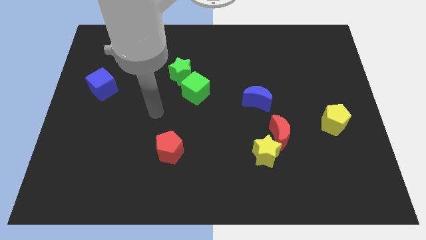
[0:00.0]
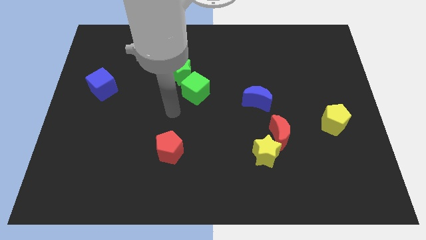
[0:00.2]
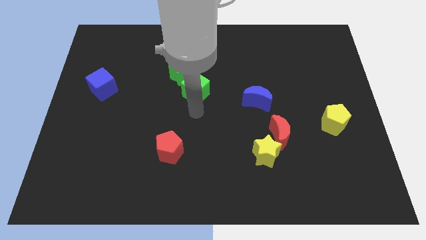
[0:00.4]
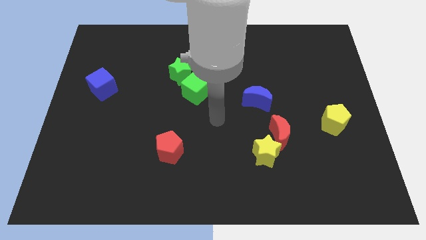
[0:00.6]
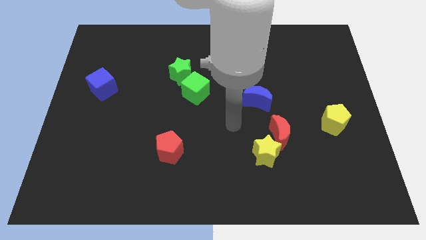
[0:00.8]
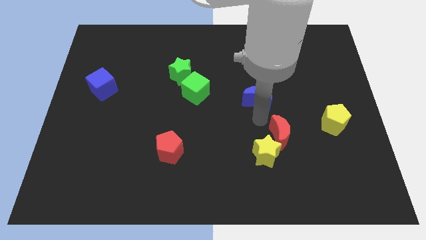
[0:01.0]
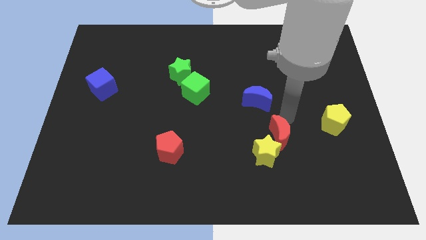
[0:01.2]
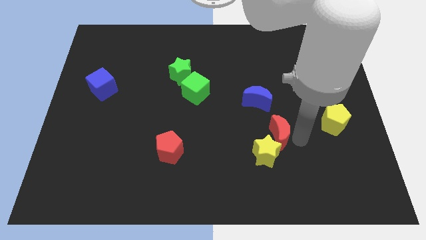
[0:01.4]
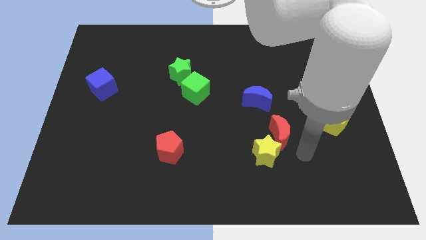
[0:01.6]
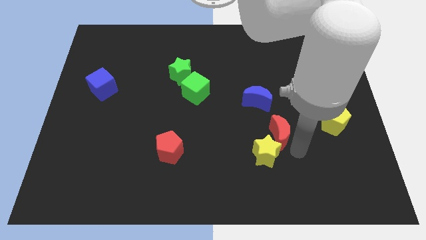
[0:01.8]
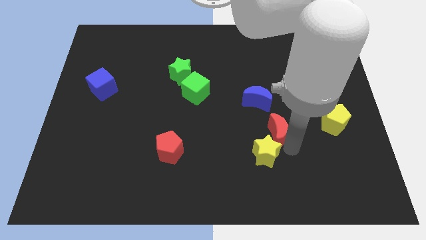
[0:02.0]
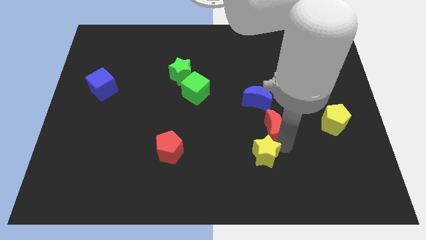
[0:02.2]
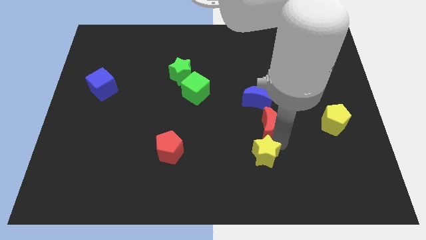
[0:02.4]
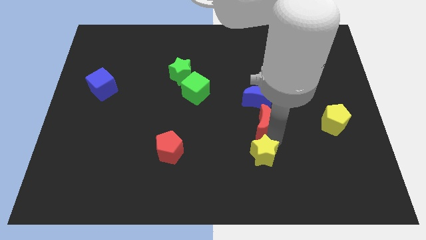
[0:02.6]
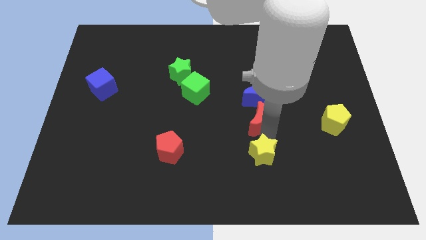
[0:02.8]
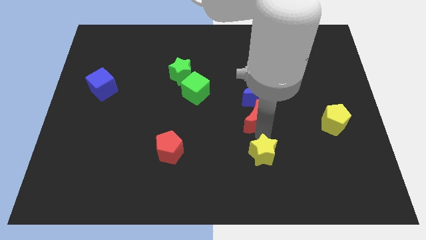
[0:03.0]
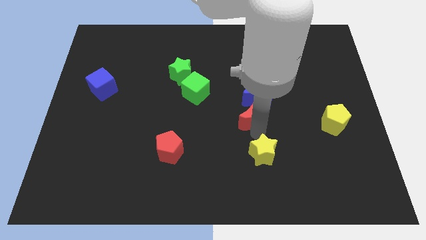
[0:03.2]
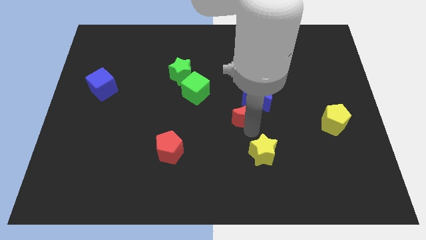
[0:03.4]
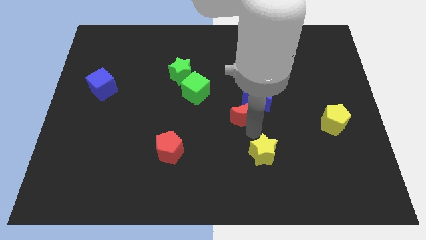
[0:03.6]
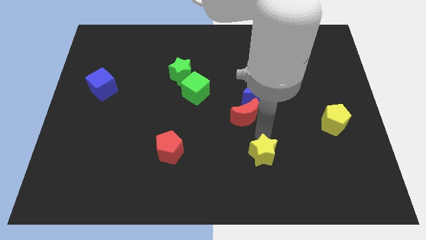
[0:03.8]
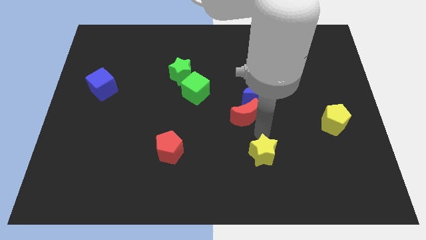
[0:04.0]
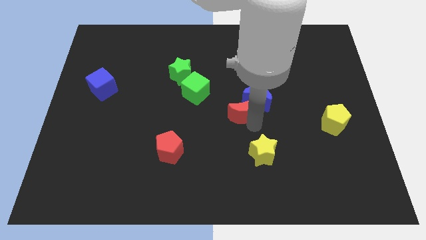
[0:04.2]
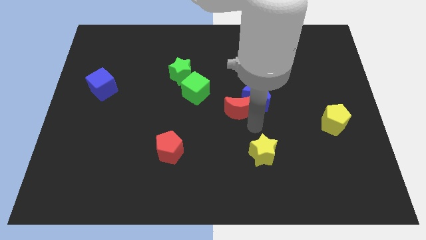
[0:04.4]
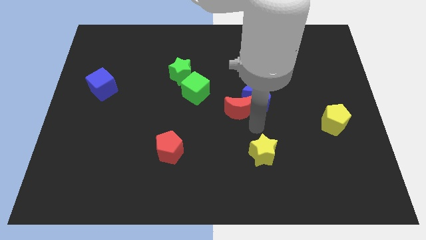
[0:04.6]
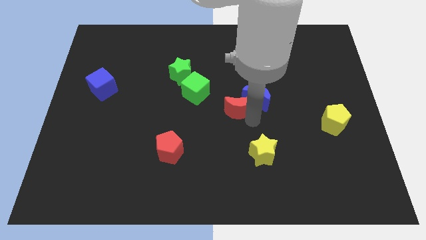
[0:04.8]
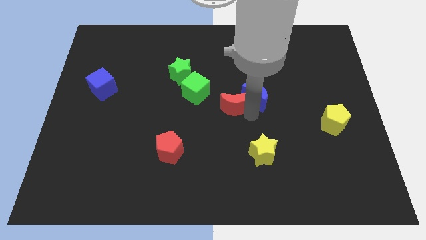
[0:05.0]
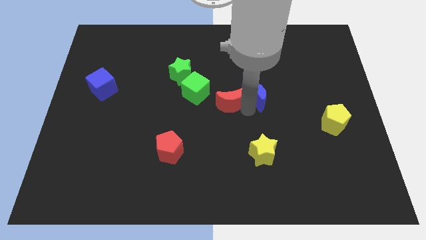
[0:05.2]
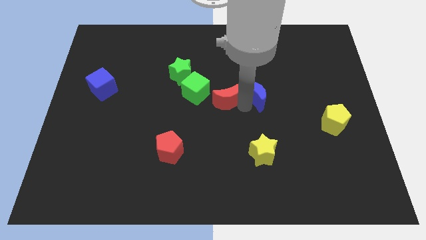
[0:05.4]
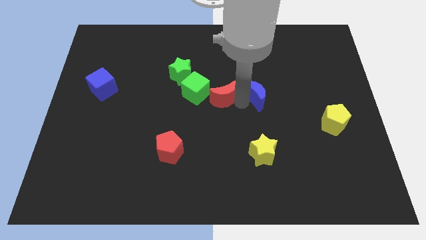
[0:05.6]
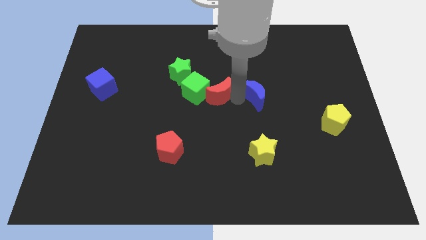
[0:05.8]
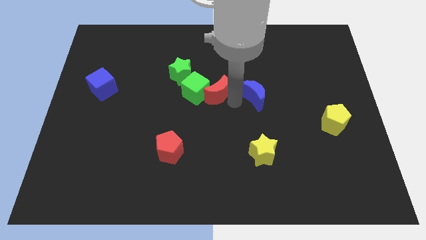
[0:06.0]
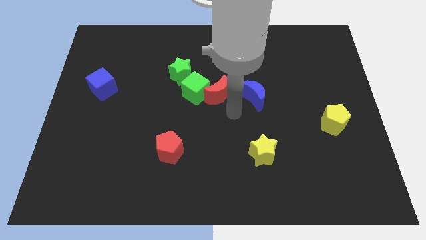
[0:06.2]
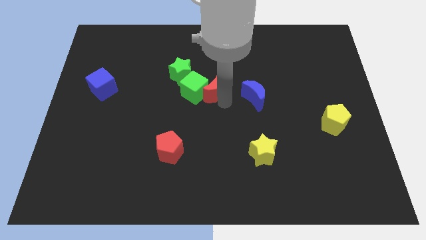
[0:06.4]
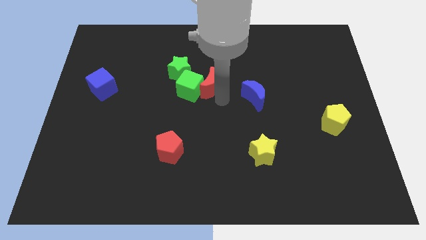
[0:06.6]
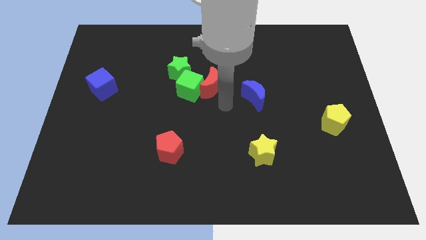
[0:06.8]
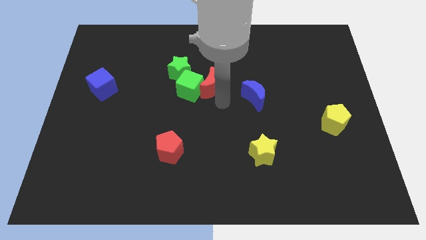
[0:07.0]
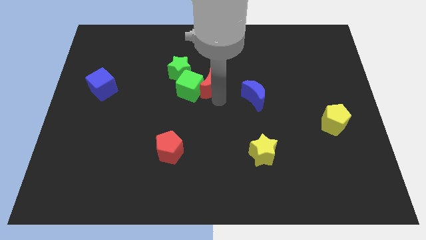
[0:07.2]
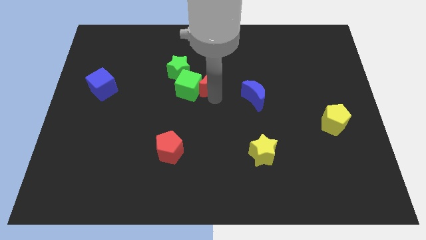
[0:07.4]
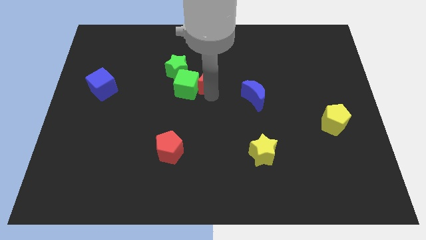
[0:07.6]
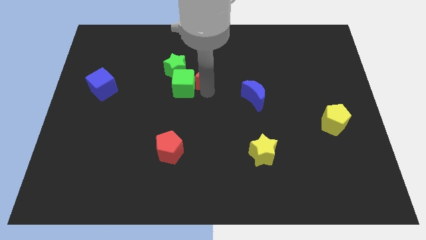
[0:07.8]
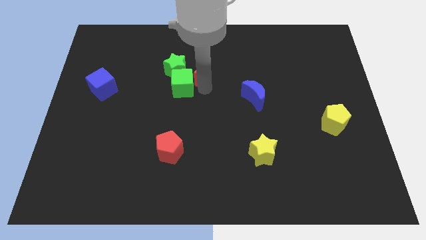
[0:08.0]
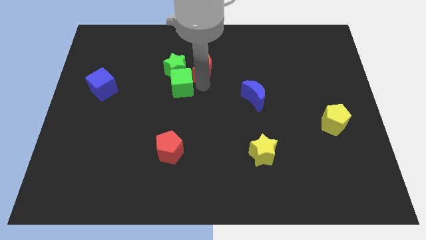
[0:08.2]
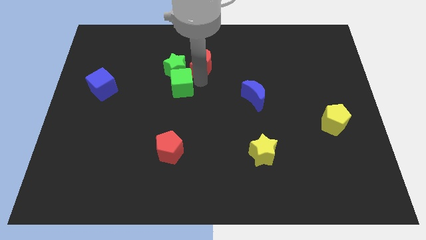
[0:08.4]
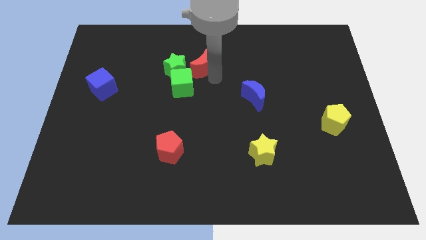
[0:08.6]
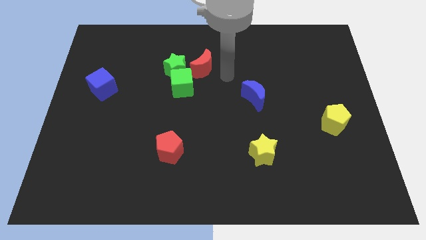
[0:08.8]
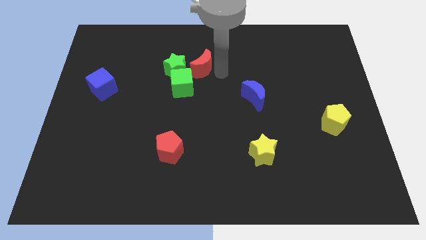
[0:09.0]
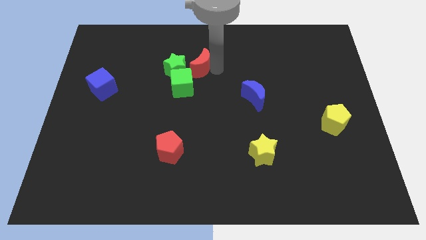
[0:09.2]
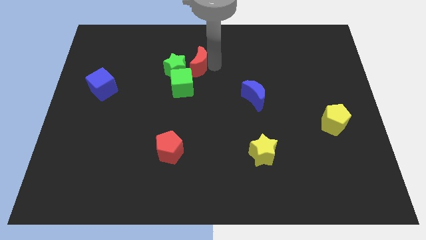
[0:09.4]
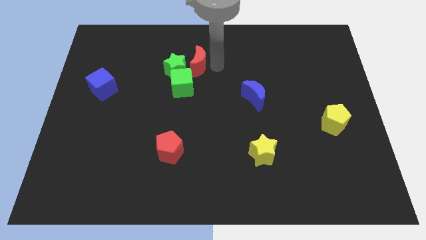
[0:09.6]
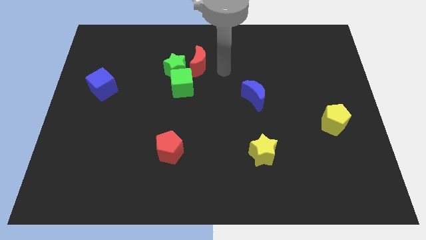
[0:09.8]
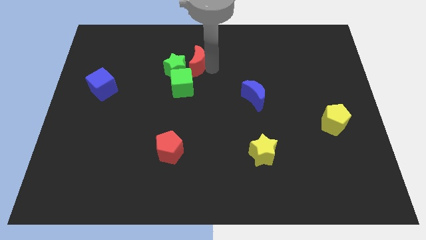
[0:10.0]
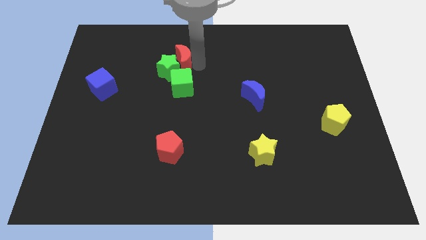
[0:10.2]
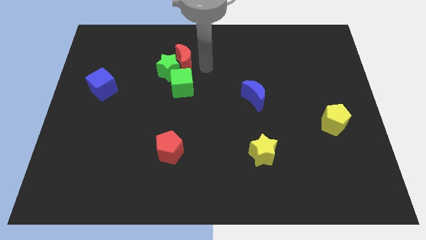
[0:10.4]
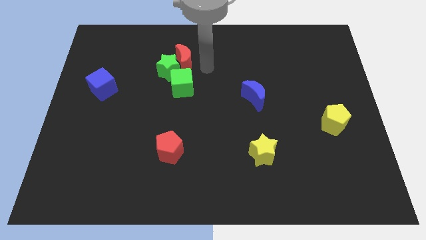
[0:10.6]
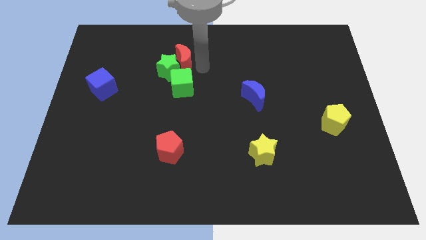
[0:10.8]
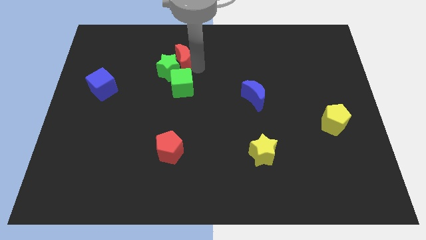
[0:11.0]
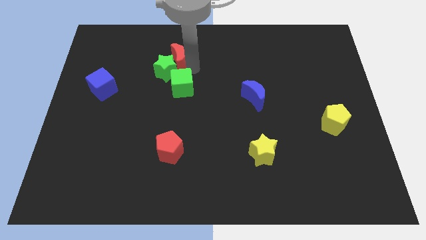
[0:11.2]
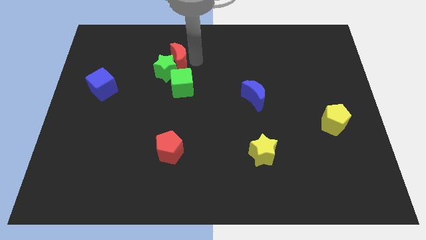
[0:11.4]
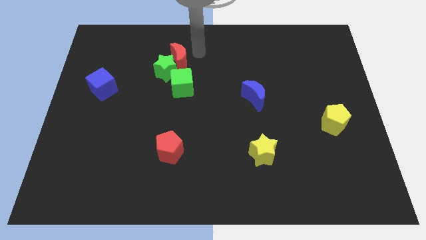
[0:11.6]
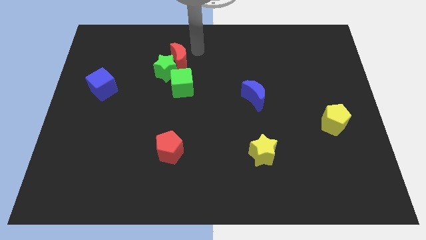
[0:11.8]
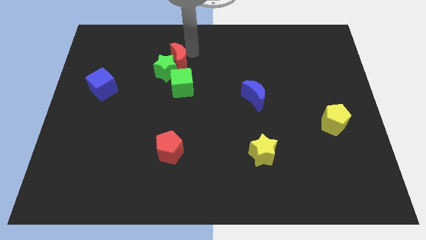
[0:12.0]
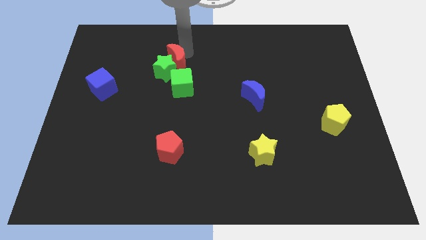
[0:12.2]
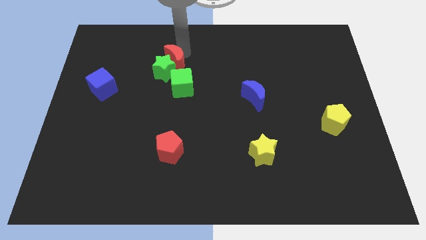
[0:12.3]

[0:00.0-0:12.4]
push the red moon to the top left side of the green cube

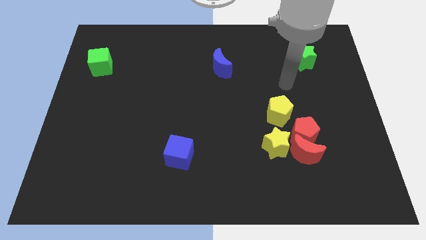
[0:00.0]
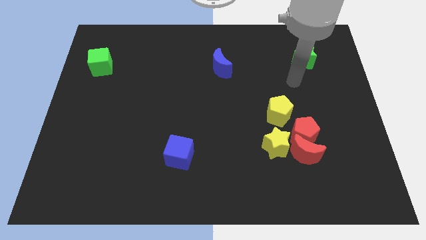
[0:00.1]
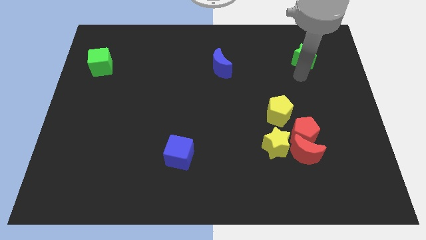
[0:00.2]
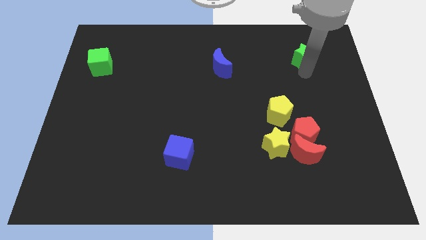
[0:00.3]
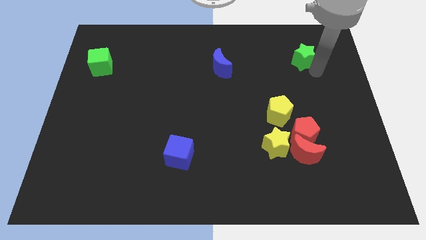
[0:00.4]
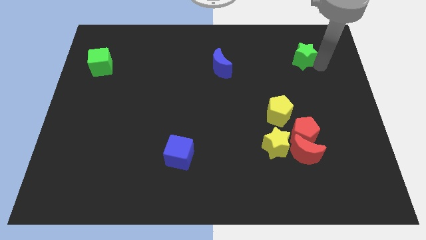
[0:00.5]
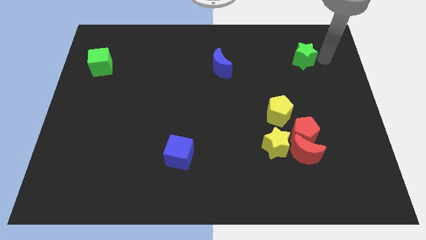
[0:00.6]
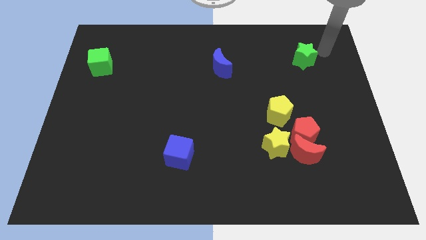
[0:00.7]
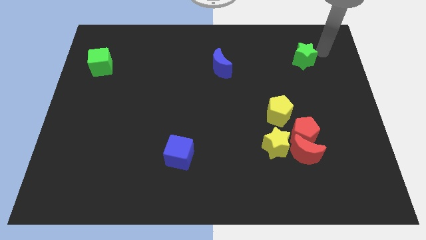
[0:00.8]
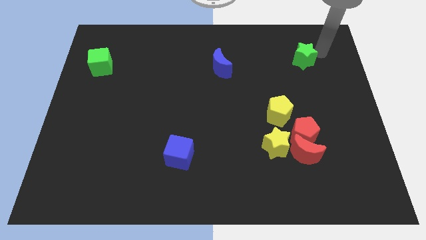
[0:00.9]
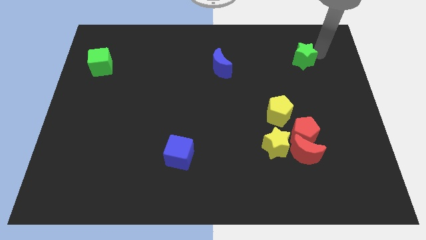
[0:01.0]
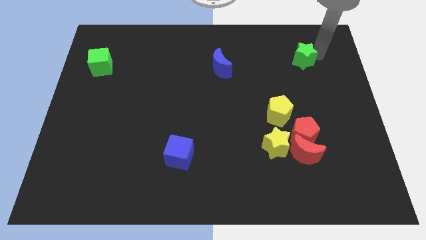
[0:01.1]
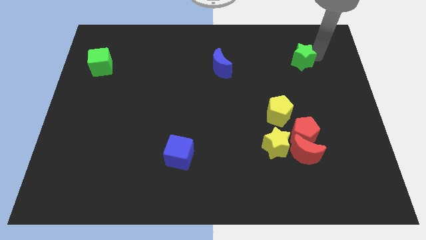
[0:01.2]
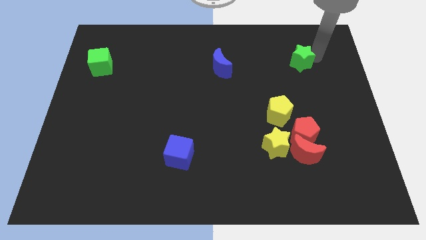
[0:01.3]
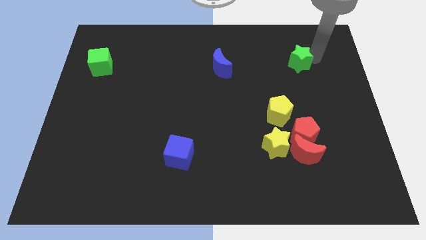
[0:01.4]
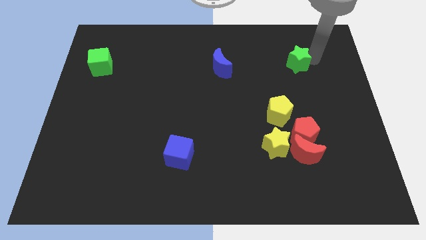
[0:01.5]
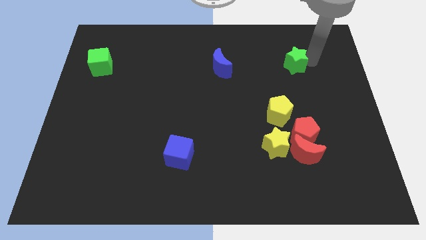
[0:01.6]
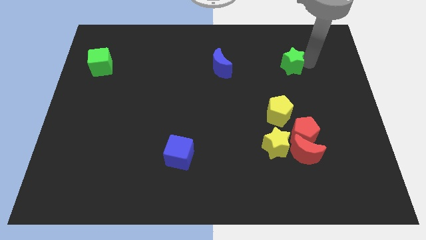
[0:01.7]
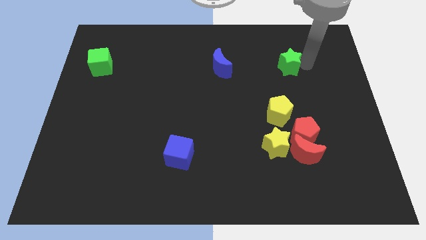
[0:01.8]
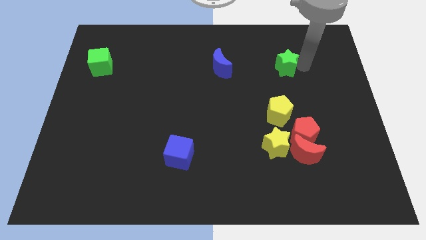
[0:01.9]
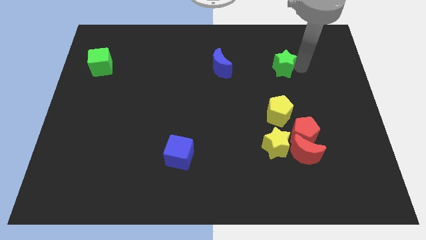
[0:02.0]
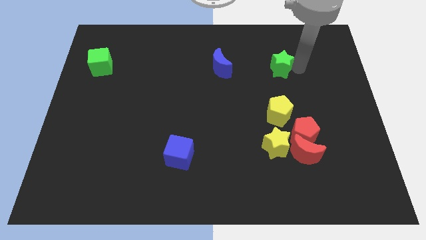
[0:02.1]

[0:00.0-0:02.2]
push the green star to the right side of the blue moon
